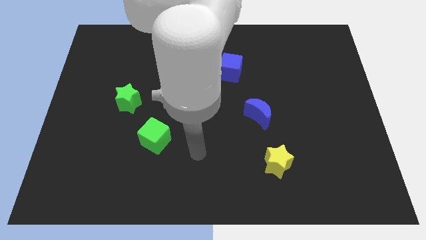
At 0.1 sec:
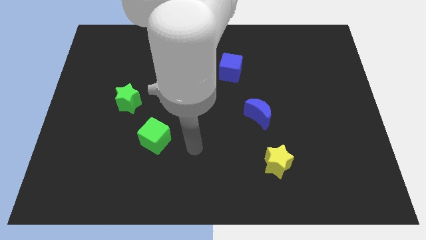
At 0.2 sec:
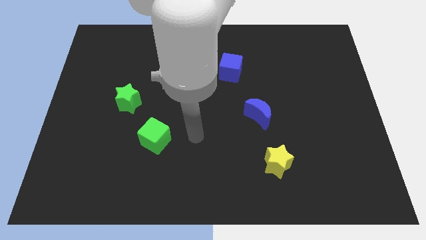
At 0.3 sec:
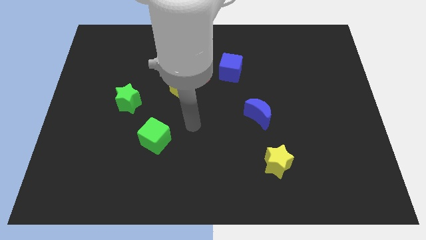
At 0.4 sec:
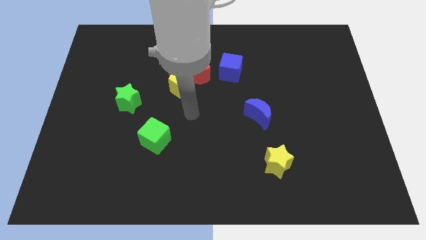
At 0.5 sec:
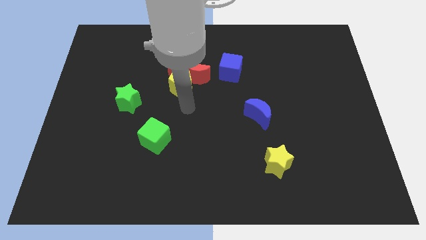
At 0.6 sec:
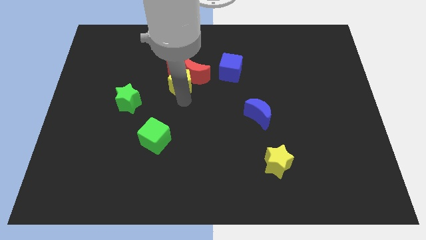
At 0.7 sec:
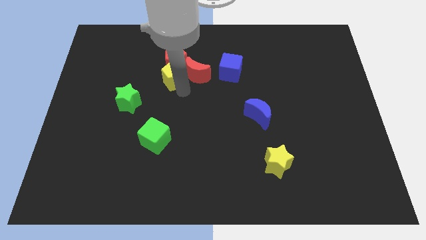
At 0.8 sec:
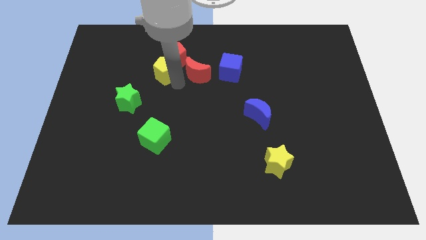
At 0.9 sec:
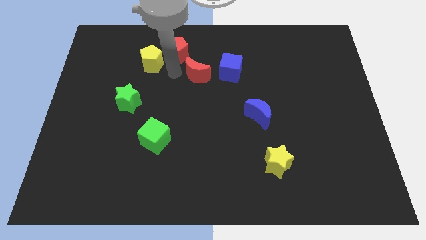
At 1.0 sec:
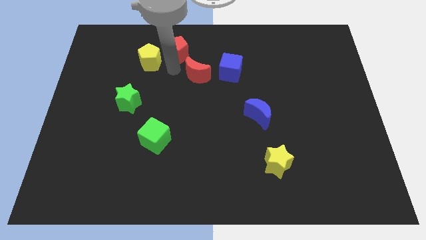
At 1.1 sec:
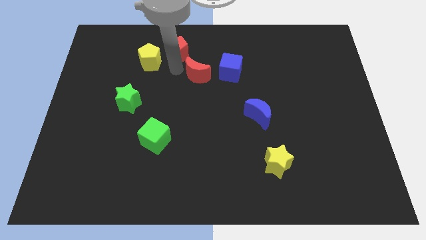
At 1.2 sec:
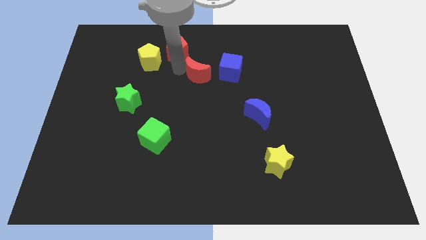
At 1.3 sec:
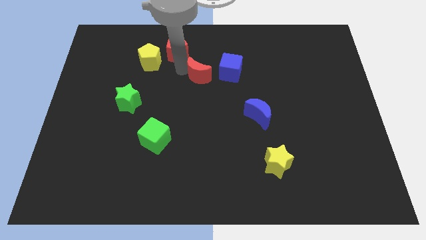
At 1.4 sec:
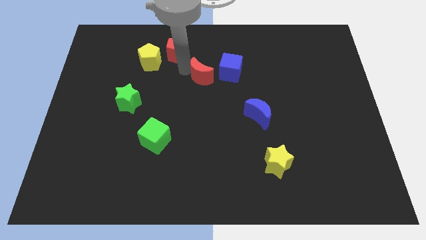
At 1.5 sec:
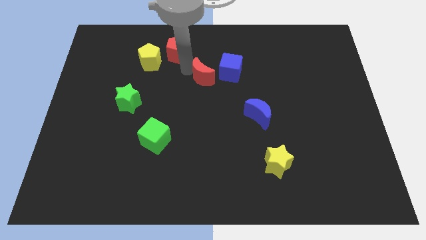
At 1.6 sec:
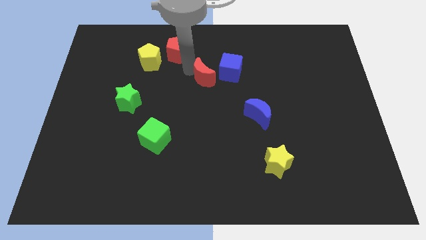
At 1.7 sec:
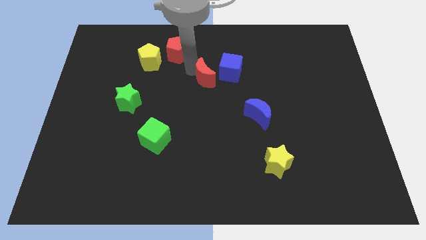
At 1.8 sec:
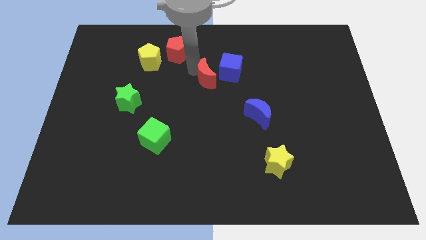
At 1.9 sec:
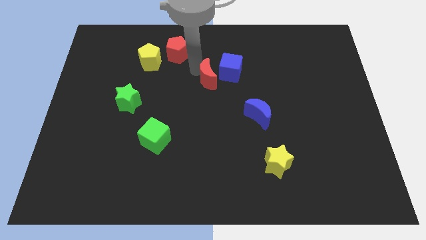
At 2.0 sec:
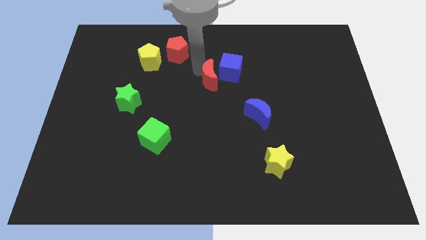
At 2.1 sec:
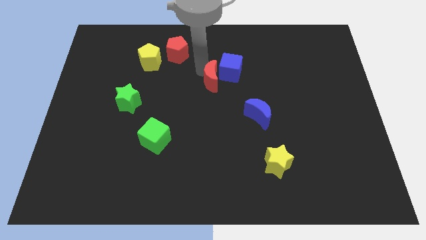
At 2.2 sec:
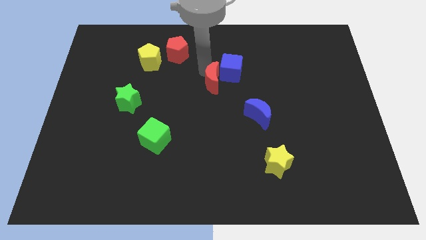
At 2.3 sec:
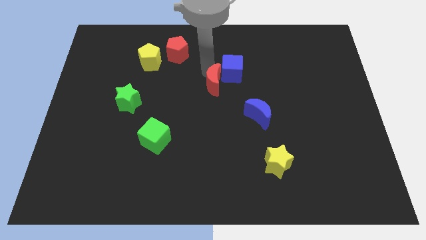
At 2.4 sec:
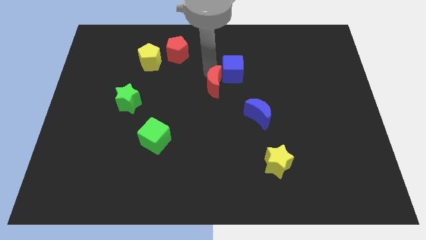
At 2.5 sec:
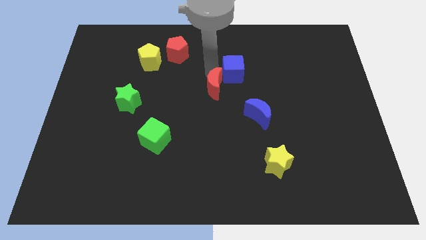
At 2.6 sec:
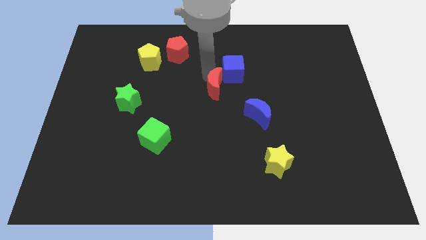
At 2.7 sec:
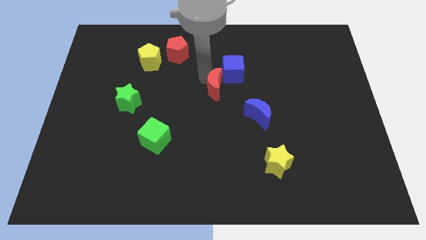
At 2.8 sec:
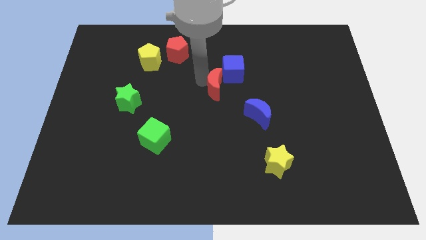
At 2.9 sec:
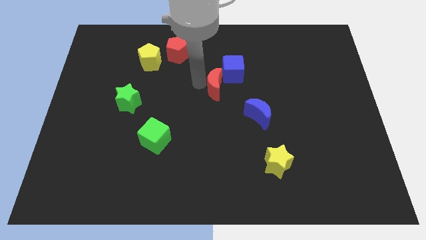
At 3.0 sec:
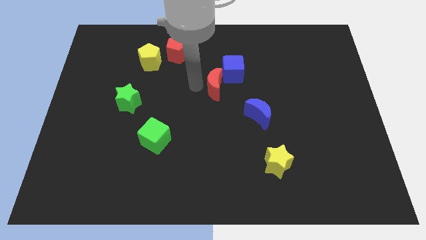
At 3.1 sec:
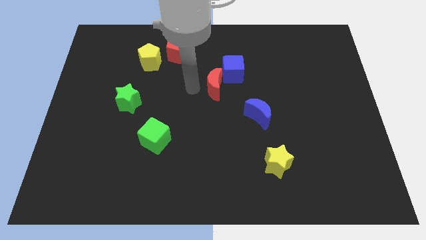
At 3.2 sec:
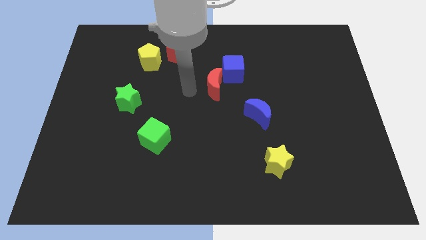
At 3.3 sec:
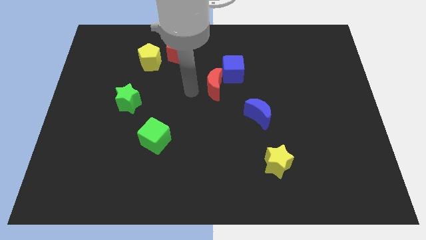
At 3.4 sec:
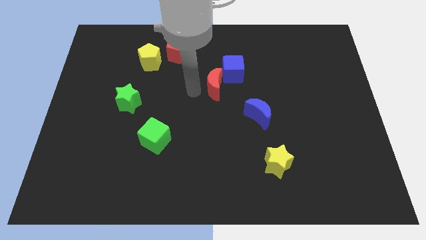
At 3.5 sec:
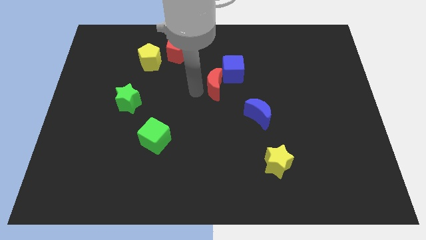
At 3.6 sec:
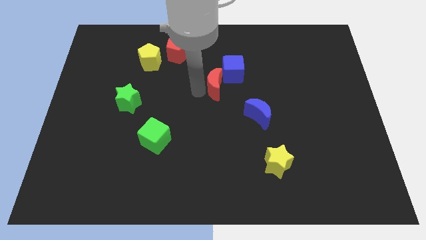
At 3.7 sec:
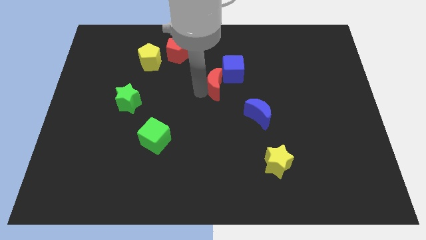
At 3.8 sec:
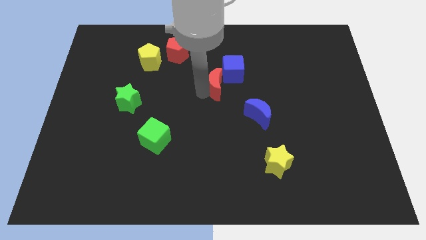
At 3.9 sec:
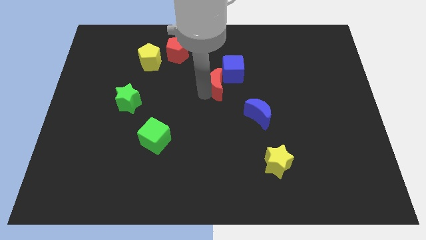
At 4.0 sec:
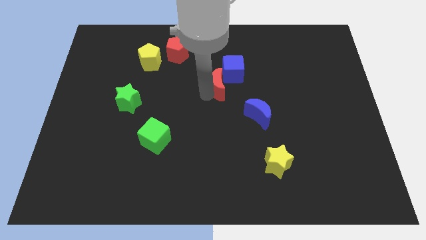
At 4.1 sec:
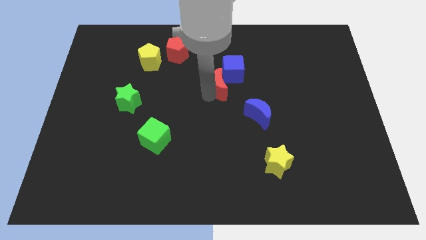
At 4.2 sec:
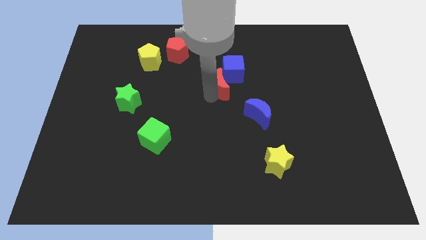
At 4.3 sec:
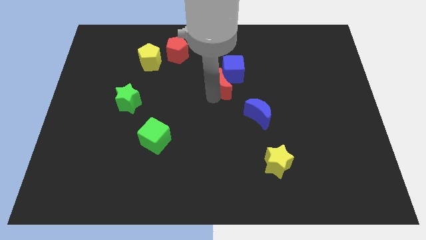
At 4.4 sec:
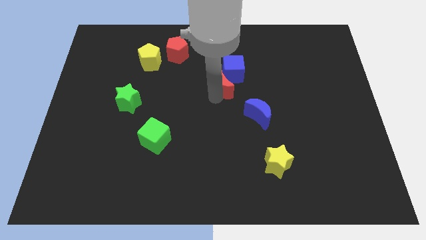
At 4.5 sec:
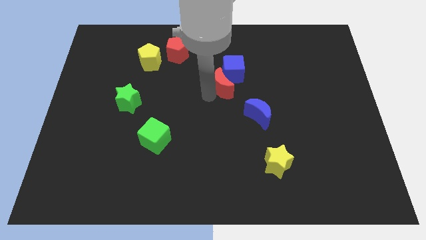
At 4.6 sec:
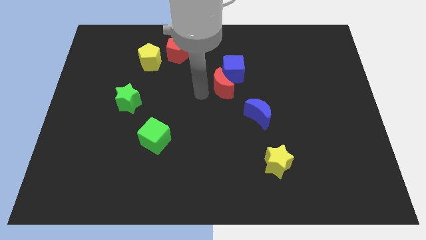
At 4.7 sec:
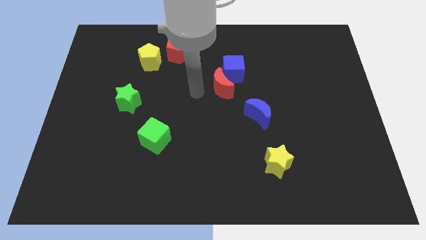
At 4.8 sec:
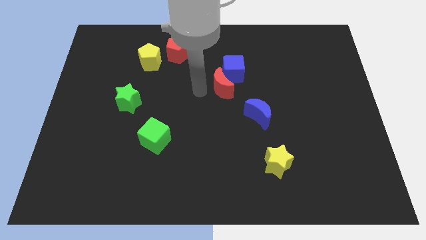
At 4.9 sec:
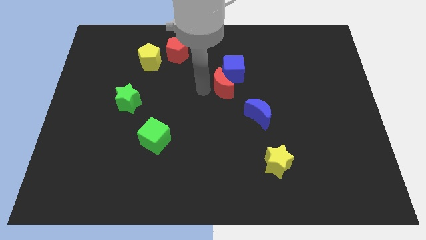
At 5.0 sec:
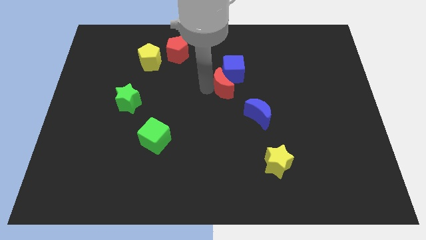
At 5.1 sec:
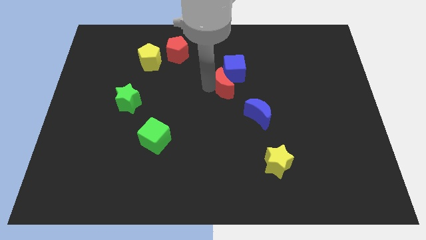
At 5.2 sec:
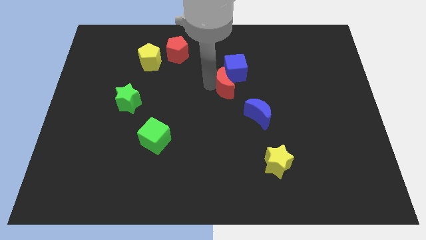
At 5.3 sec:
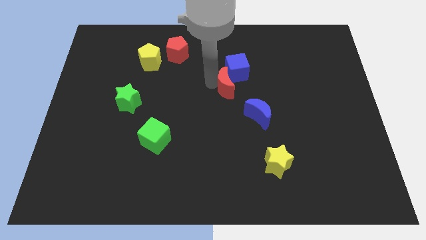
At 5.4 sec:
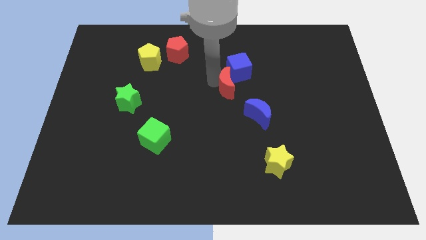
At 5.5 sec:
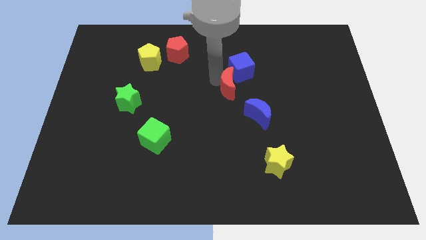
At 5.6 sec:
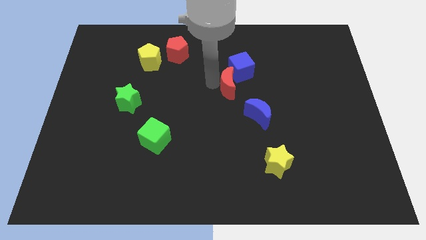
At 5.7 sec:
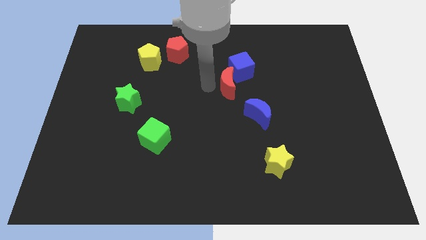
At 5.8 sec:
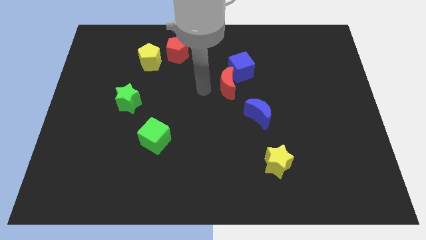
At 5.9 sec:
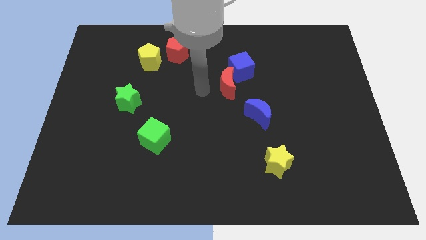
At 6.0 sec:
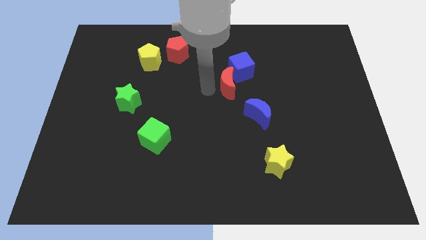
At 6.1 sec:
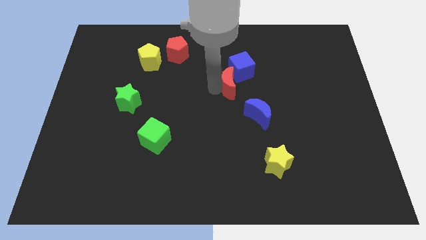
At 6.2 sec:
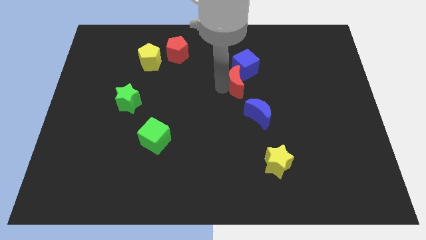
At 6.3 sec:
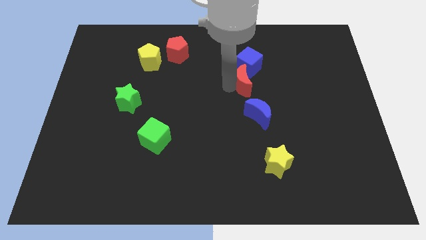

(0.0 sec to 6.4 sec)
move the red moon above the blue moon
